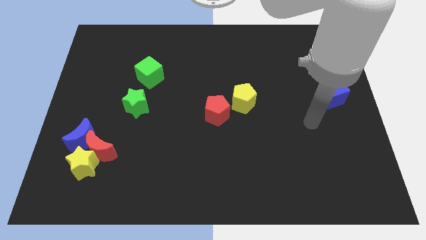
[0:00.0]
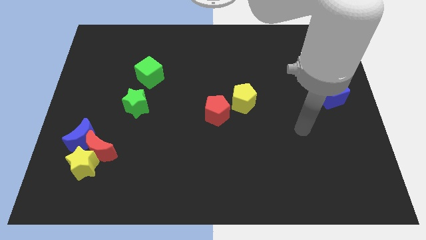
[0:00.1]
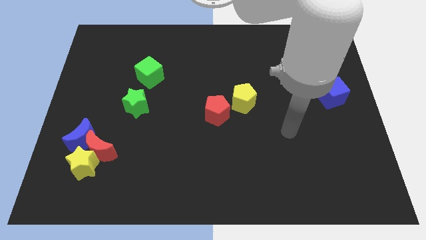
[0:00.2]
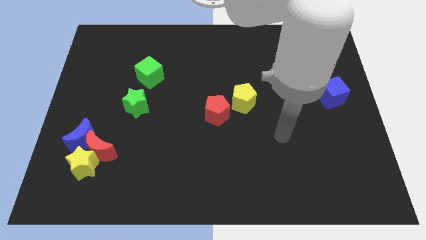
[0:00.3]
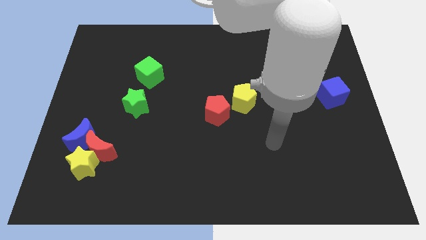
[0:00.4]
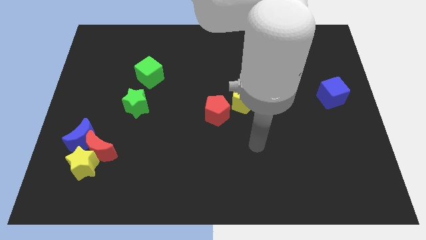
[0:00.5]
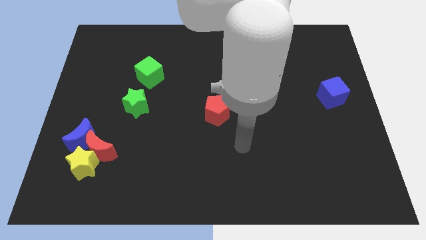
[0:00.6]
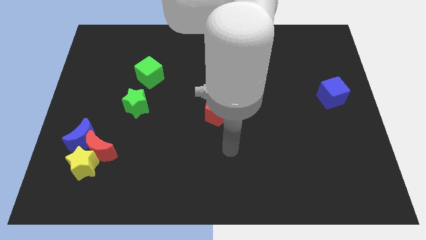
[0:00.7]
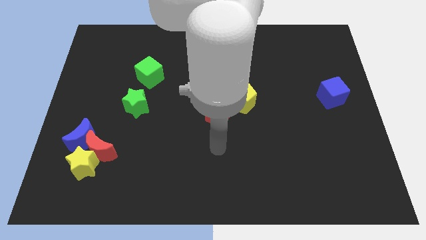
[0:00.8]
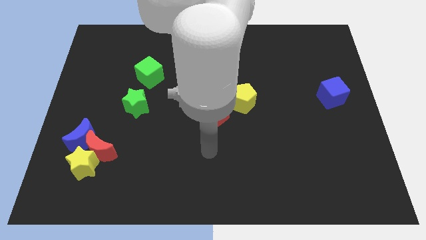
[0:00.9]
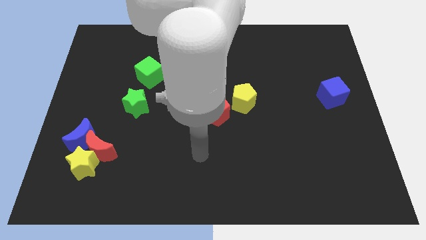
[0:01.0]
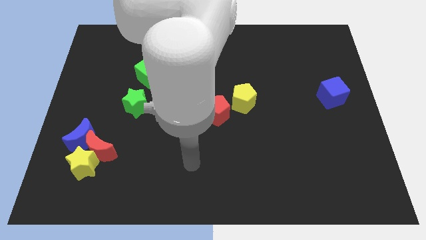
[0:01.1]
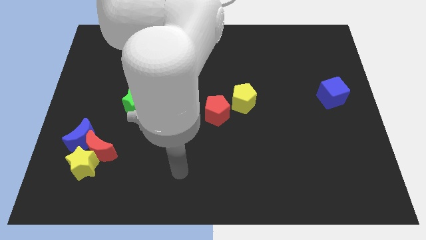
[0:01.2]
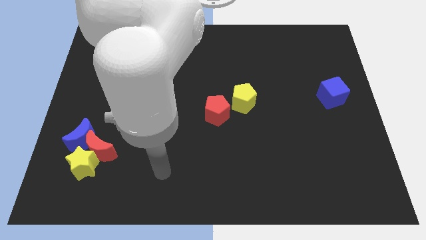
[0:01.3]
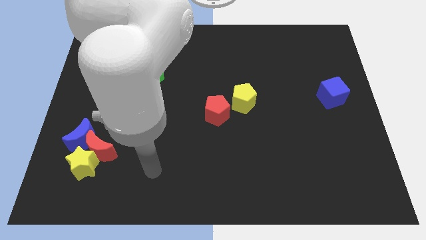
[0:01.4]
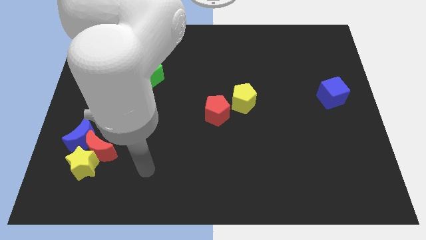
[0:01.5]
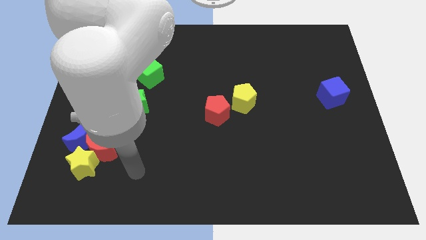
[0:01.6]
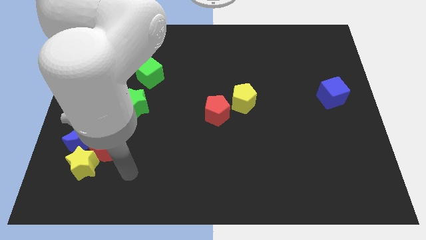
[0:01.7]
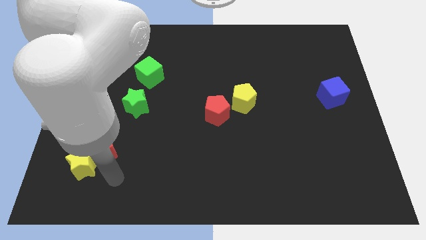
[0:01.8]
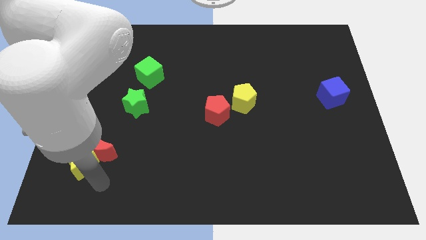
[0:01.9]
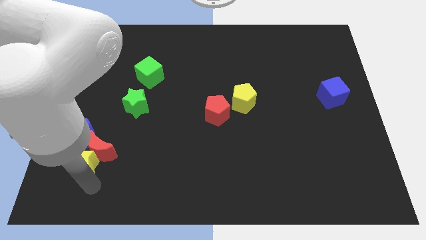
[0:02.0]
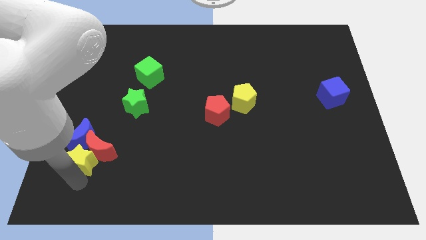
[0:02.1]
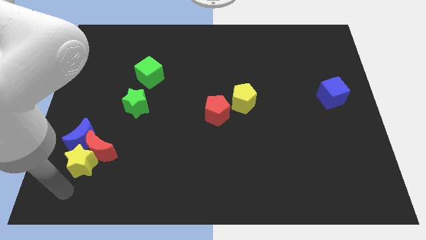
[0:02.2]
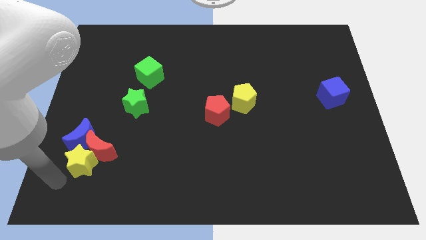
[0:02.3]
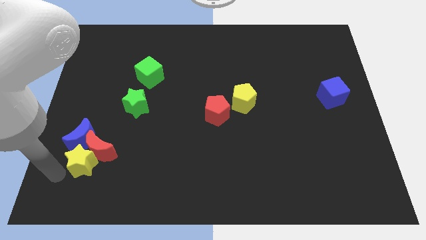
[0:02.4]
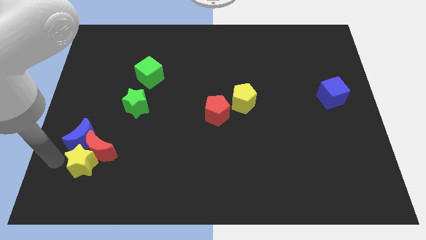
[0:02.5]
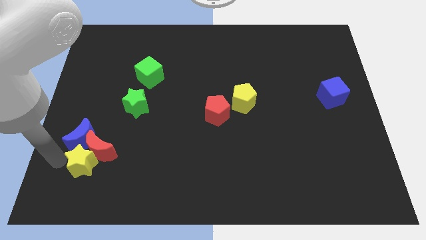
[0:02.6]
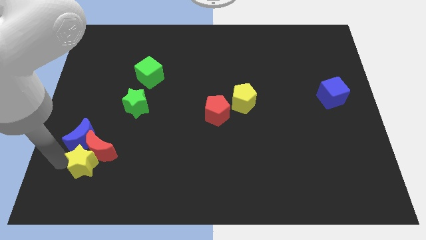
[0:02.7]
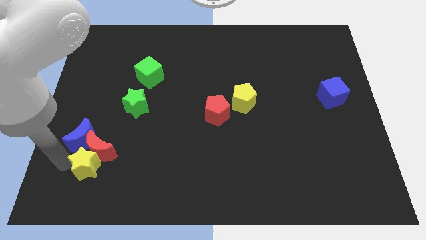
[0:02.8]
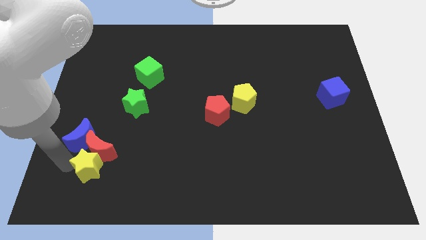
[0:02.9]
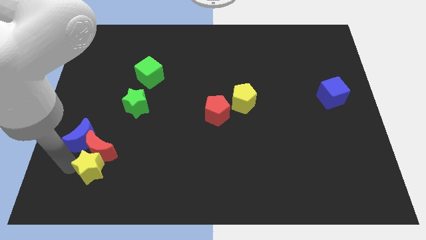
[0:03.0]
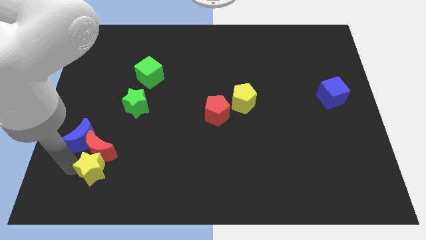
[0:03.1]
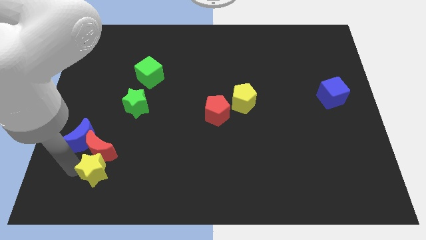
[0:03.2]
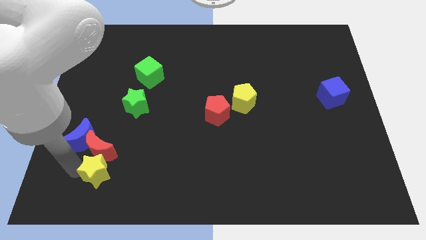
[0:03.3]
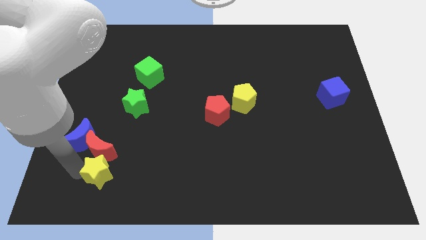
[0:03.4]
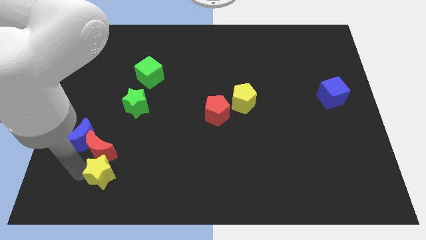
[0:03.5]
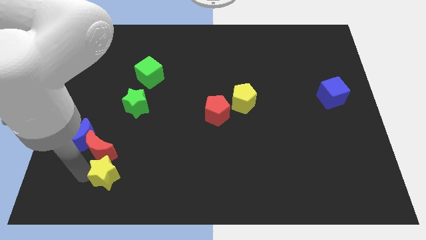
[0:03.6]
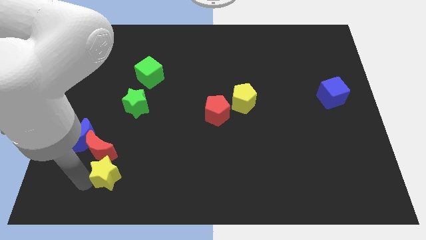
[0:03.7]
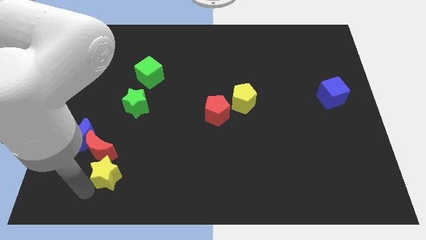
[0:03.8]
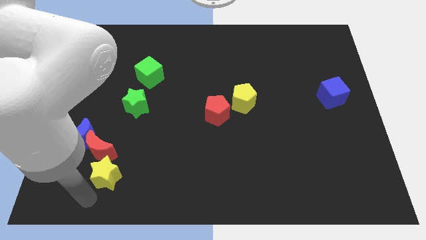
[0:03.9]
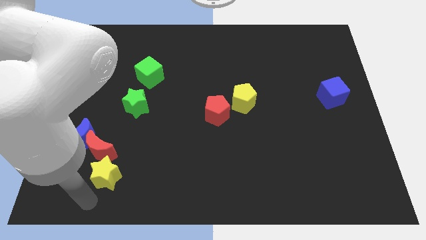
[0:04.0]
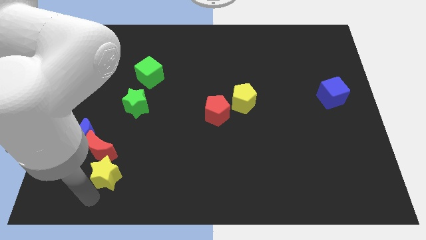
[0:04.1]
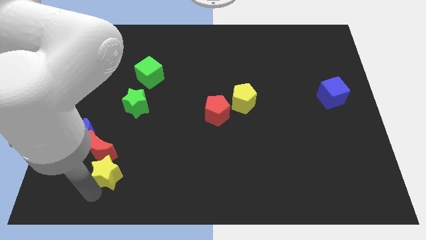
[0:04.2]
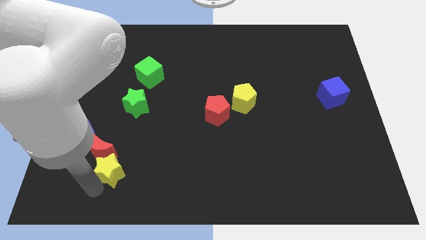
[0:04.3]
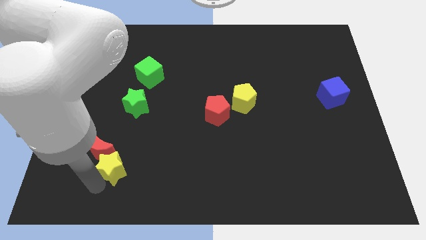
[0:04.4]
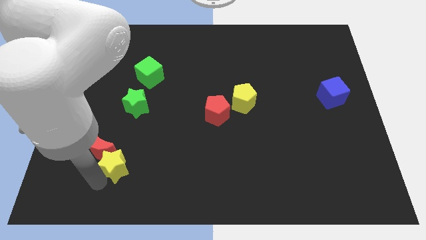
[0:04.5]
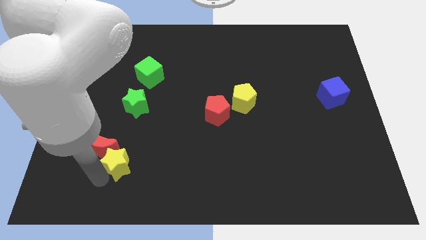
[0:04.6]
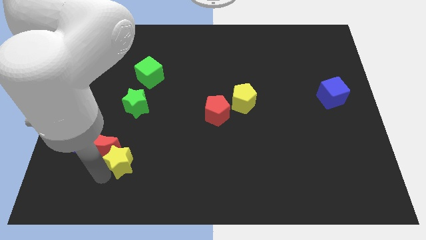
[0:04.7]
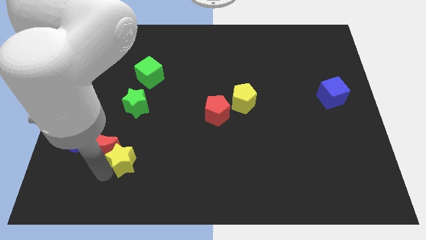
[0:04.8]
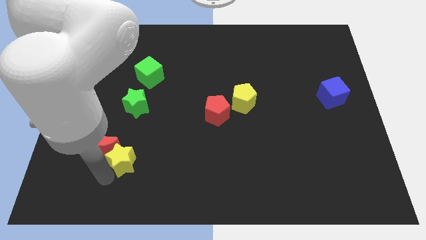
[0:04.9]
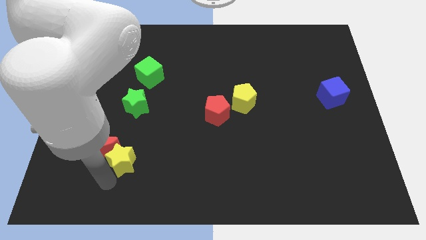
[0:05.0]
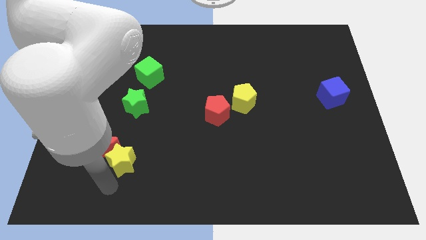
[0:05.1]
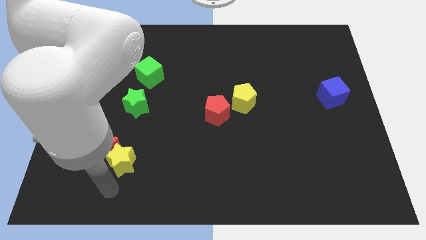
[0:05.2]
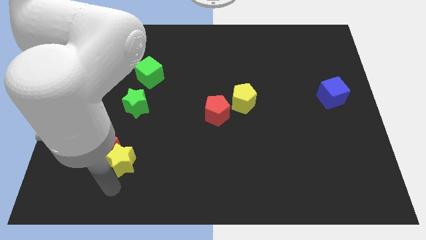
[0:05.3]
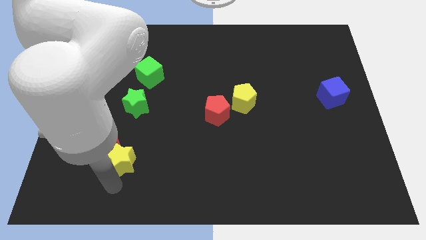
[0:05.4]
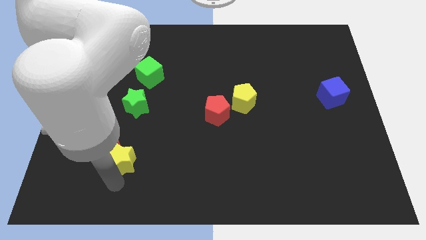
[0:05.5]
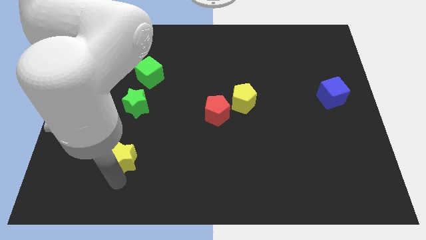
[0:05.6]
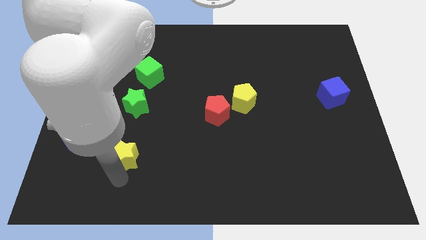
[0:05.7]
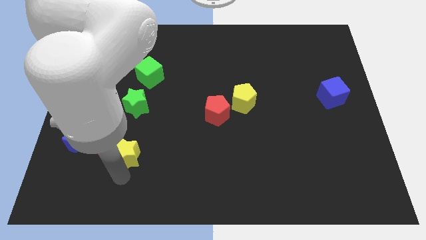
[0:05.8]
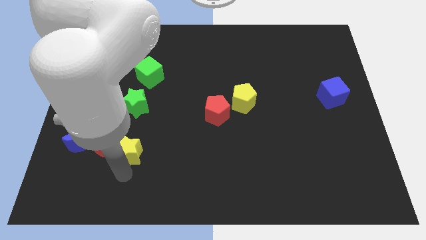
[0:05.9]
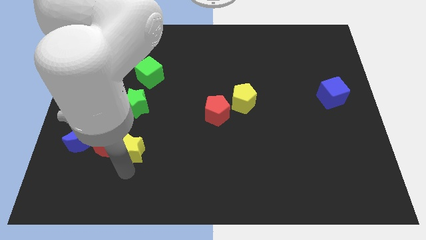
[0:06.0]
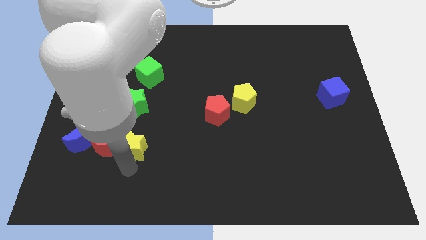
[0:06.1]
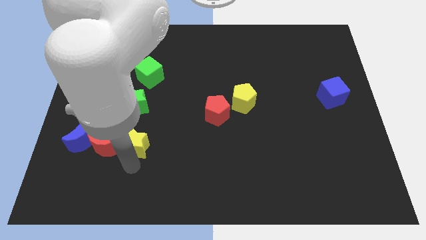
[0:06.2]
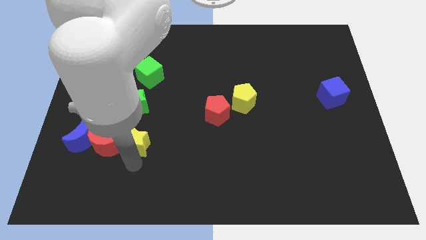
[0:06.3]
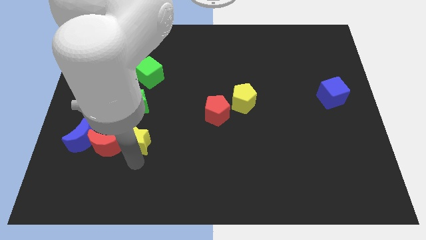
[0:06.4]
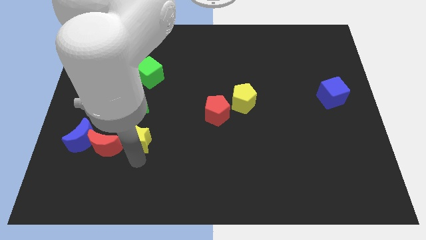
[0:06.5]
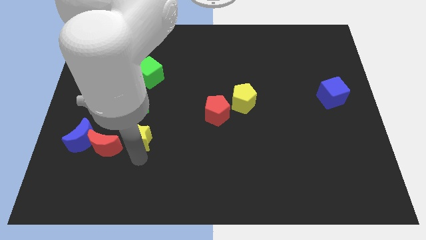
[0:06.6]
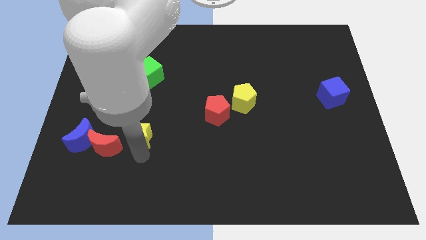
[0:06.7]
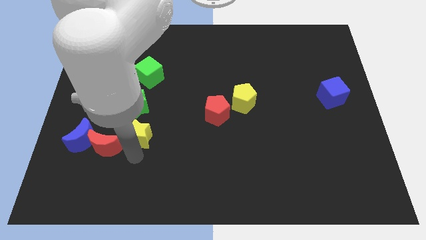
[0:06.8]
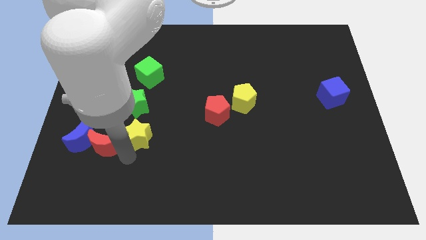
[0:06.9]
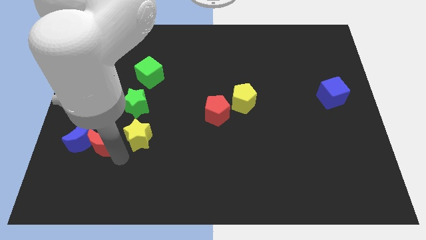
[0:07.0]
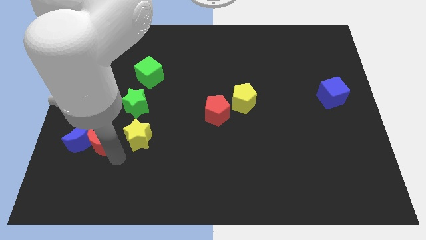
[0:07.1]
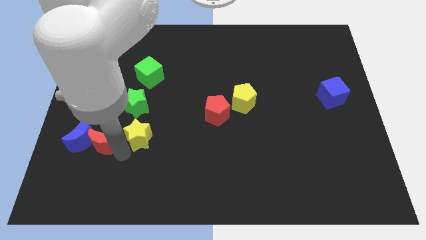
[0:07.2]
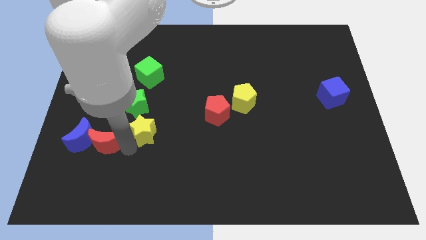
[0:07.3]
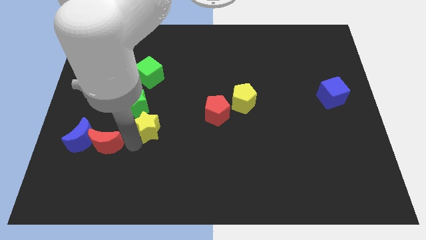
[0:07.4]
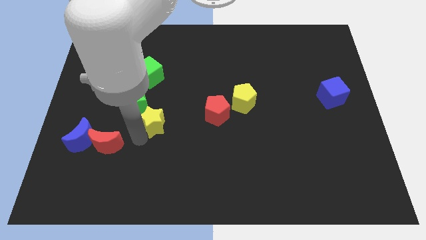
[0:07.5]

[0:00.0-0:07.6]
push the yellow star to the left of the red pentagon
